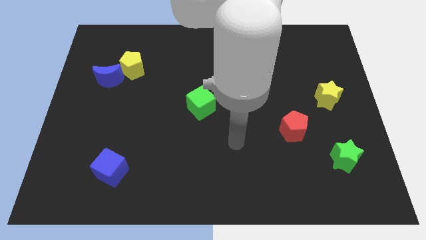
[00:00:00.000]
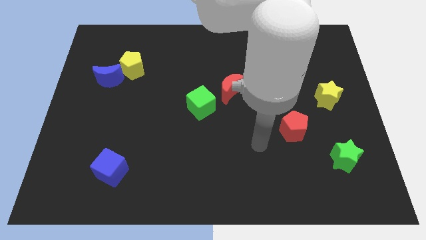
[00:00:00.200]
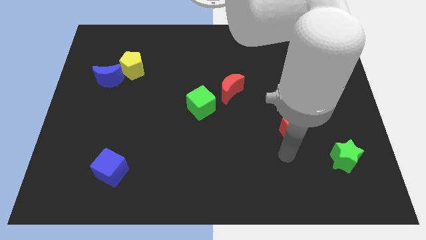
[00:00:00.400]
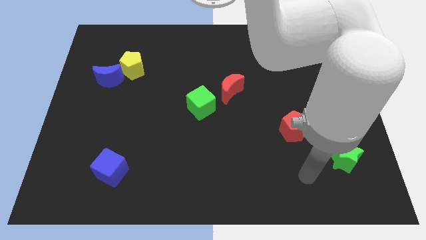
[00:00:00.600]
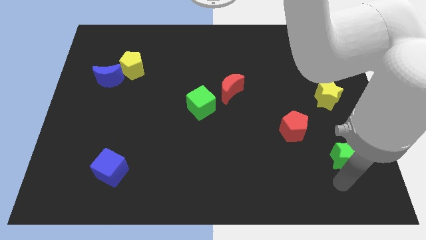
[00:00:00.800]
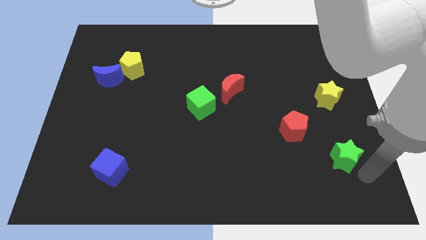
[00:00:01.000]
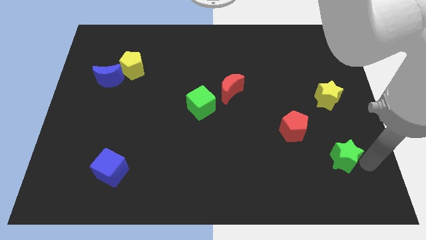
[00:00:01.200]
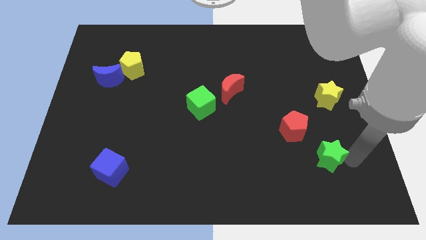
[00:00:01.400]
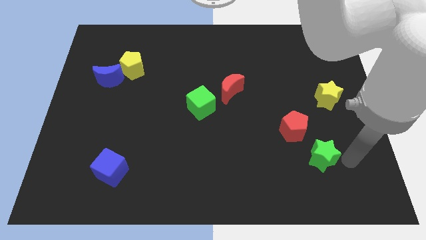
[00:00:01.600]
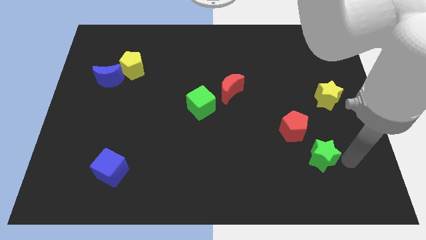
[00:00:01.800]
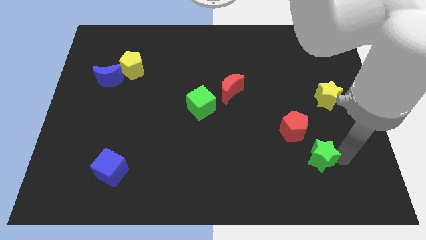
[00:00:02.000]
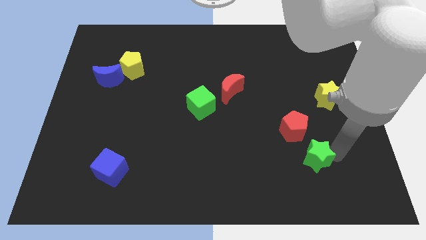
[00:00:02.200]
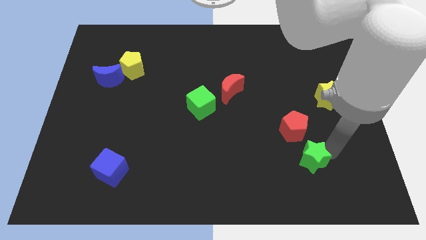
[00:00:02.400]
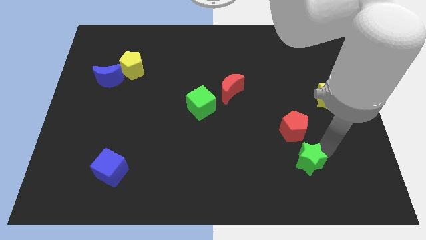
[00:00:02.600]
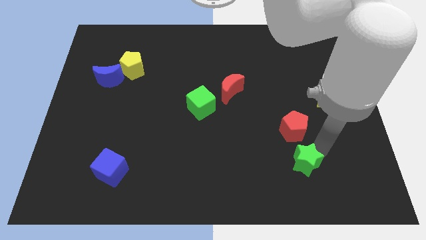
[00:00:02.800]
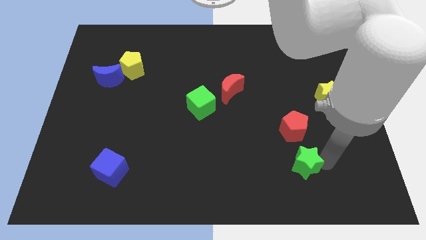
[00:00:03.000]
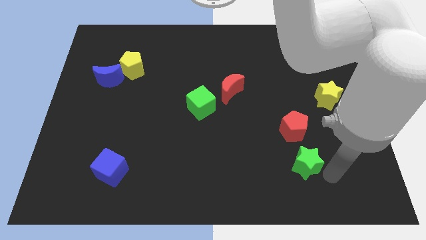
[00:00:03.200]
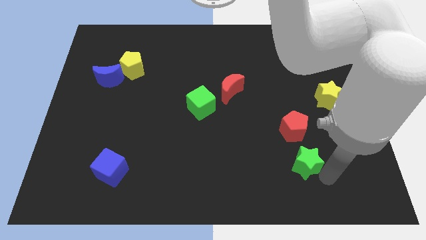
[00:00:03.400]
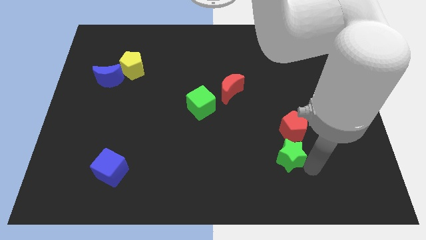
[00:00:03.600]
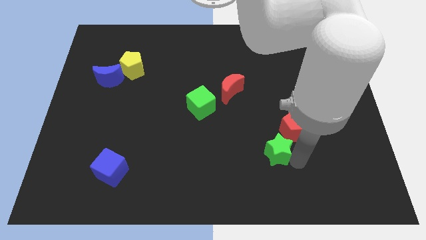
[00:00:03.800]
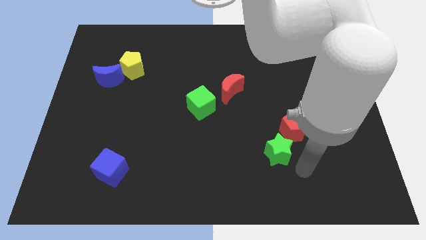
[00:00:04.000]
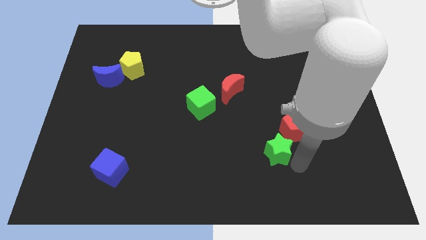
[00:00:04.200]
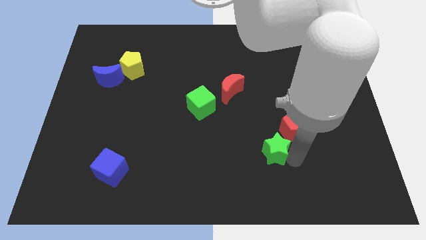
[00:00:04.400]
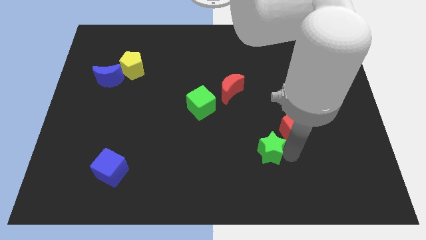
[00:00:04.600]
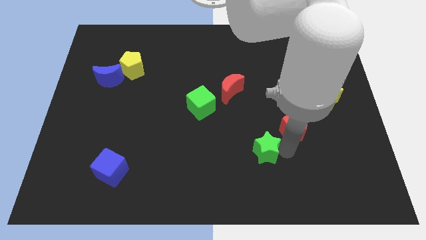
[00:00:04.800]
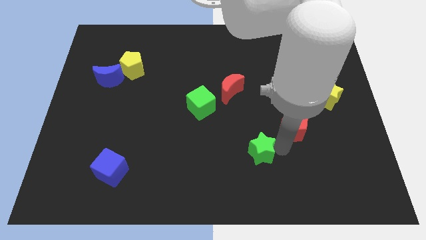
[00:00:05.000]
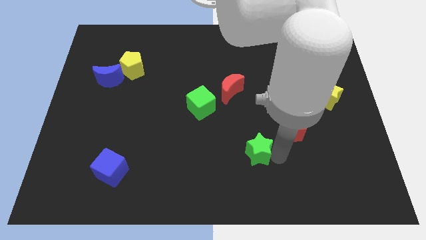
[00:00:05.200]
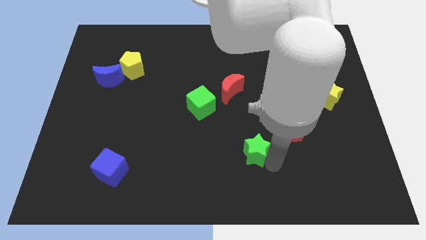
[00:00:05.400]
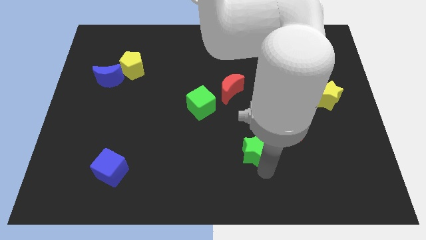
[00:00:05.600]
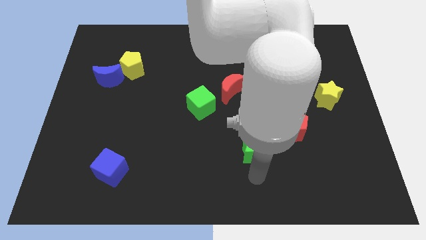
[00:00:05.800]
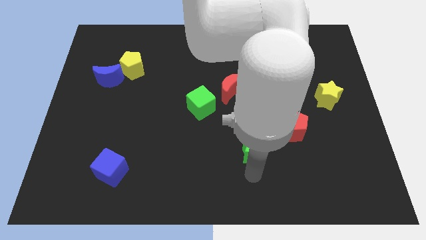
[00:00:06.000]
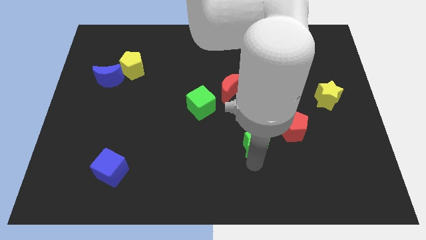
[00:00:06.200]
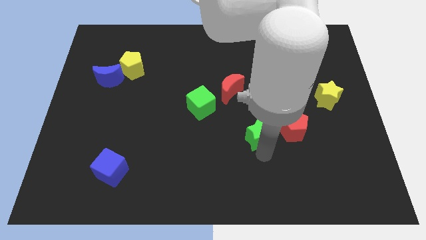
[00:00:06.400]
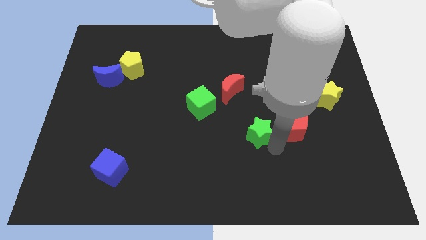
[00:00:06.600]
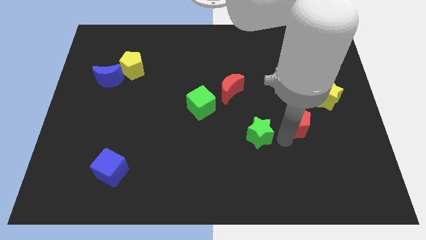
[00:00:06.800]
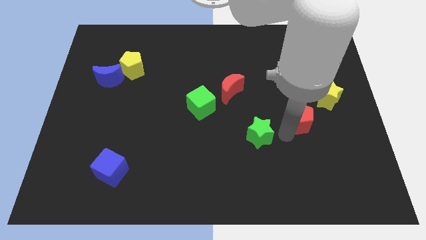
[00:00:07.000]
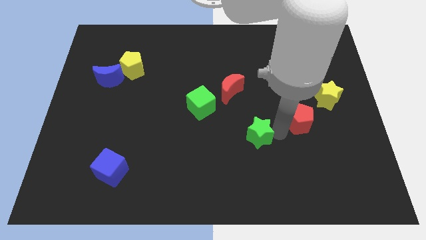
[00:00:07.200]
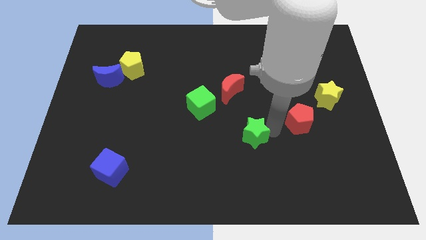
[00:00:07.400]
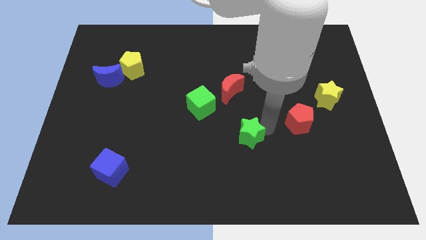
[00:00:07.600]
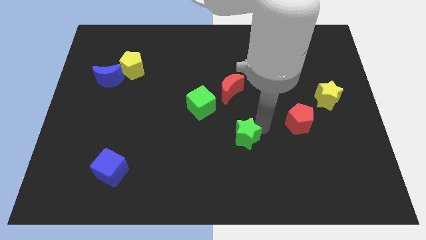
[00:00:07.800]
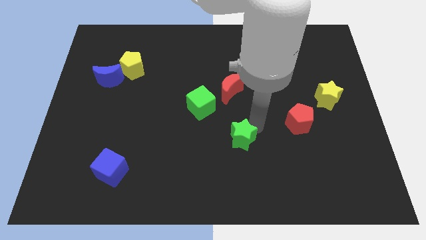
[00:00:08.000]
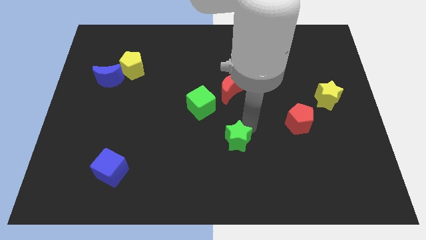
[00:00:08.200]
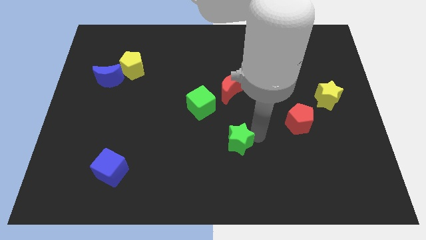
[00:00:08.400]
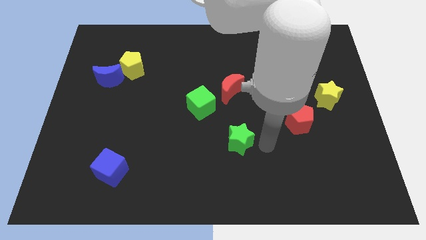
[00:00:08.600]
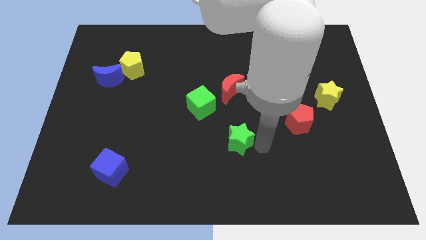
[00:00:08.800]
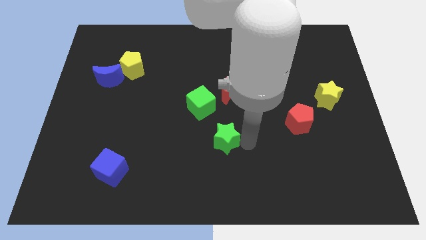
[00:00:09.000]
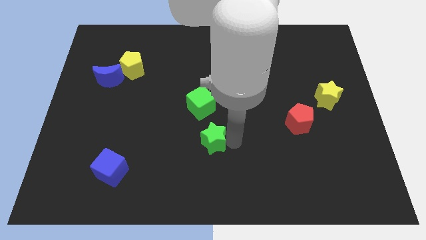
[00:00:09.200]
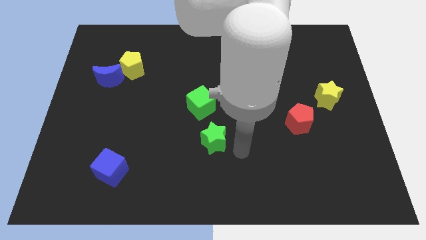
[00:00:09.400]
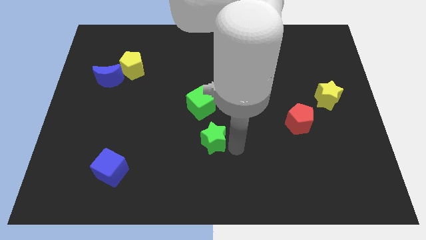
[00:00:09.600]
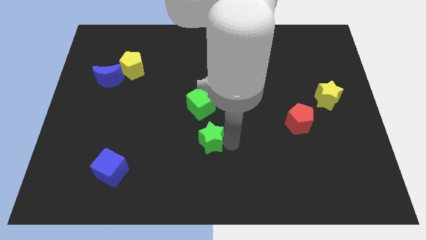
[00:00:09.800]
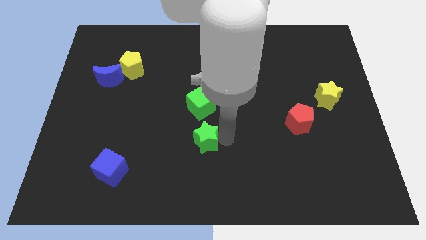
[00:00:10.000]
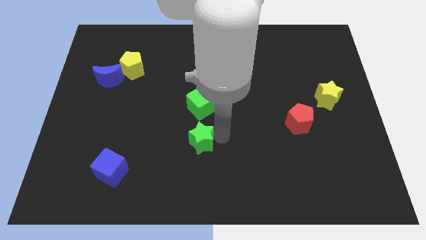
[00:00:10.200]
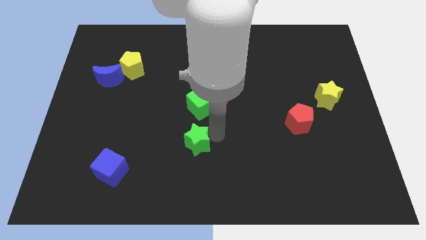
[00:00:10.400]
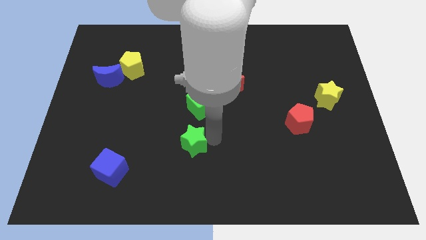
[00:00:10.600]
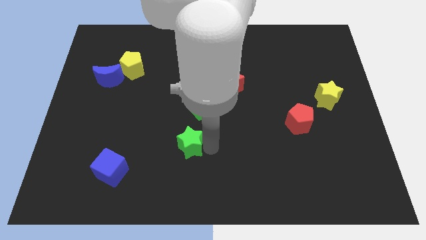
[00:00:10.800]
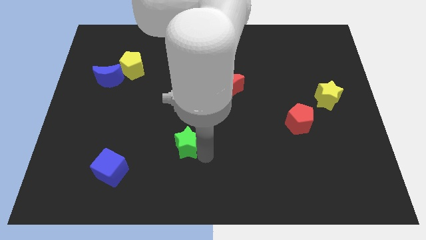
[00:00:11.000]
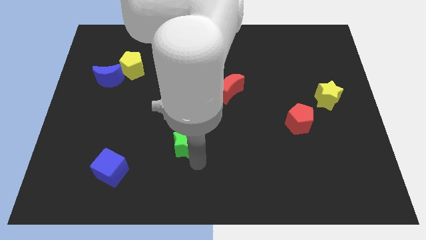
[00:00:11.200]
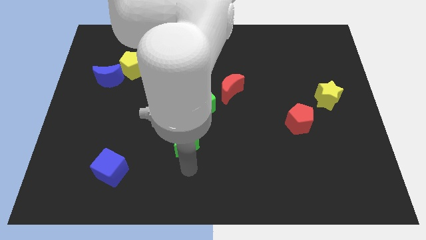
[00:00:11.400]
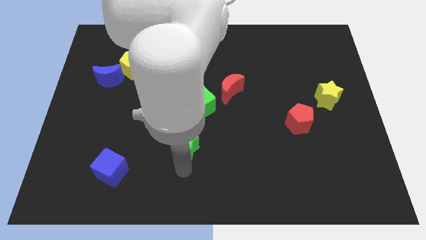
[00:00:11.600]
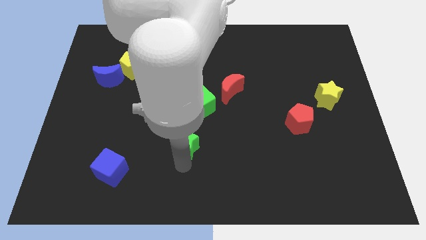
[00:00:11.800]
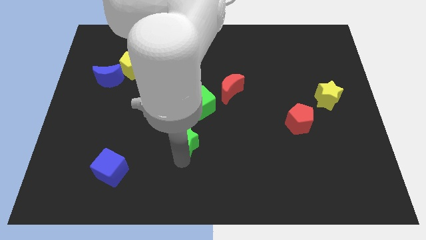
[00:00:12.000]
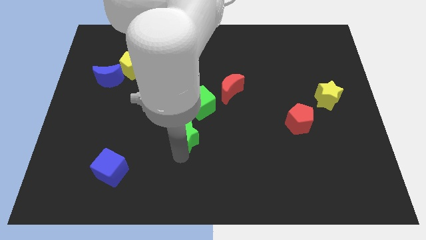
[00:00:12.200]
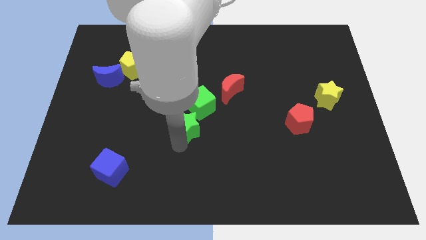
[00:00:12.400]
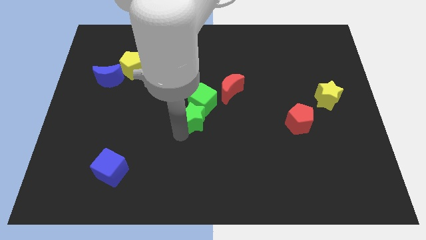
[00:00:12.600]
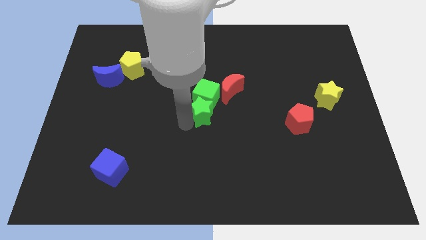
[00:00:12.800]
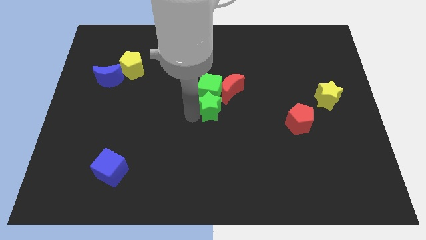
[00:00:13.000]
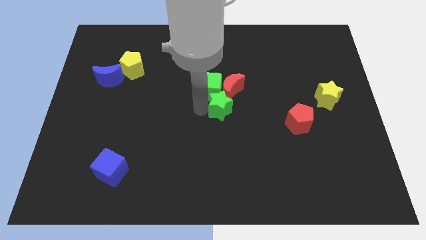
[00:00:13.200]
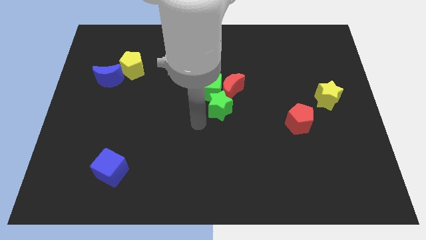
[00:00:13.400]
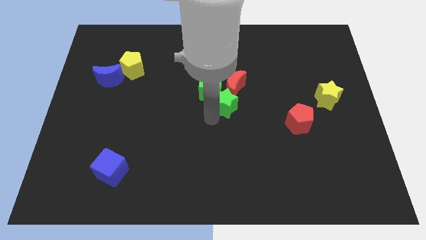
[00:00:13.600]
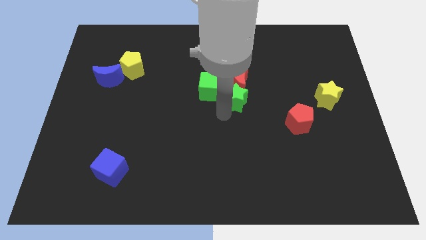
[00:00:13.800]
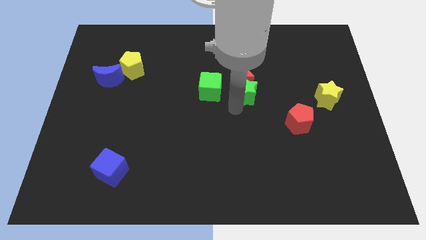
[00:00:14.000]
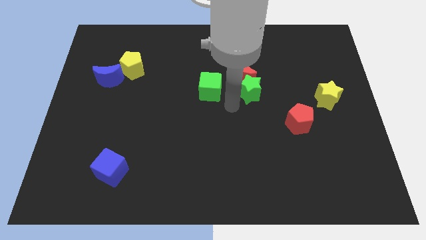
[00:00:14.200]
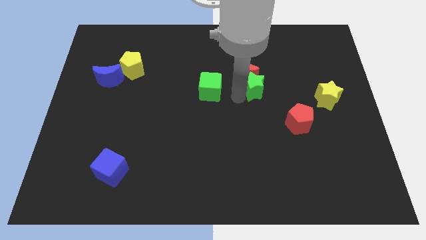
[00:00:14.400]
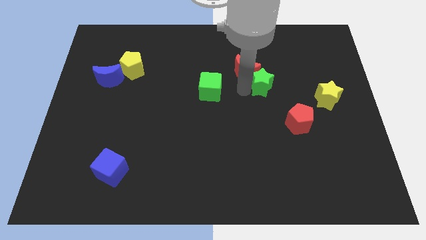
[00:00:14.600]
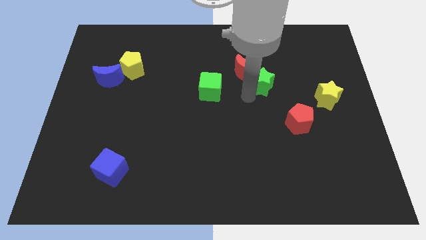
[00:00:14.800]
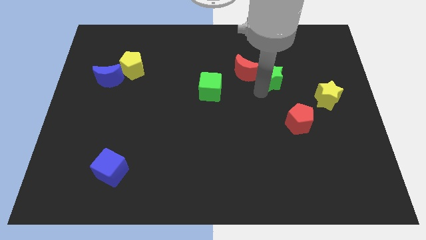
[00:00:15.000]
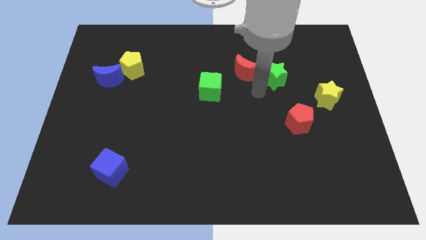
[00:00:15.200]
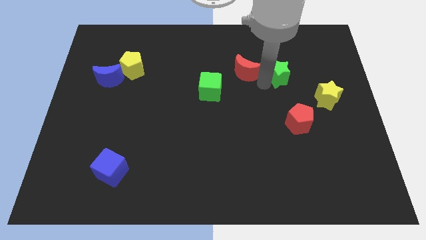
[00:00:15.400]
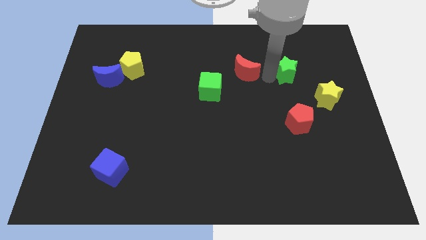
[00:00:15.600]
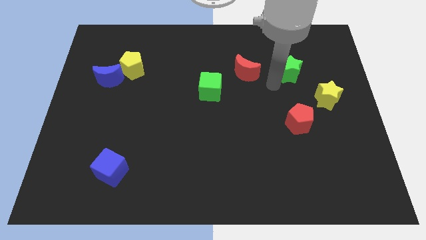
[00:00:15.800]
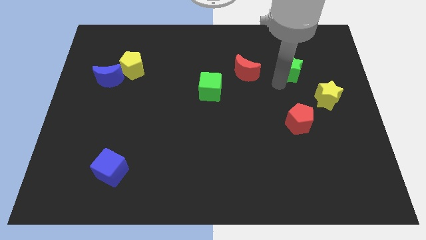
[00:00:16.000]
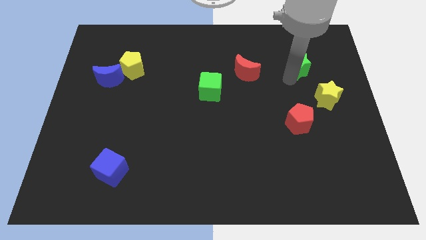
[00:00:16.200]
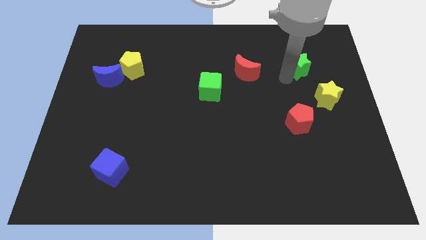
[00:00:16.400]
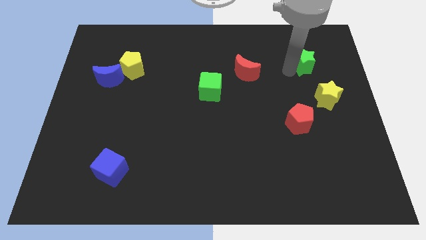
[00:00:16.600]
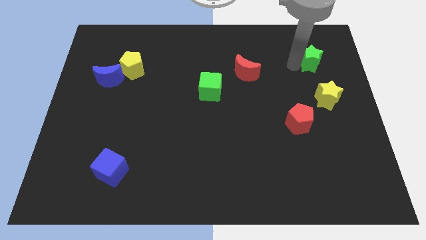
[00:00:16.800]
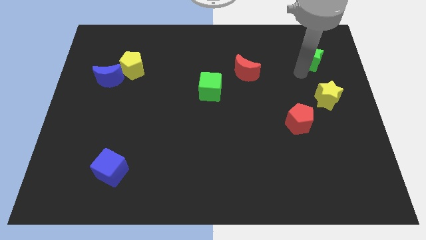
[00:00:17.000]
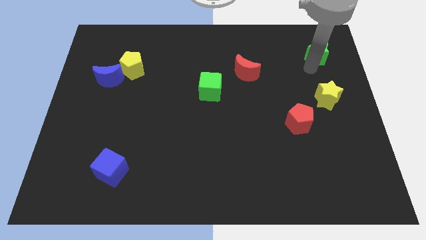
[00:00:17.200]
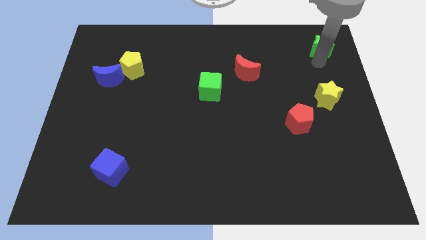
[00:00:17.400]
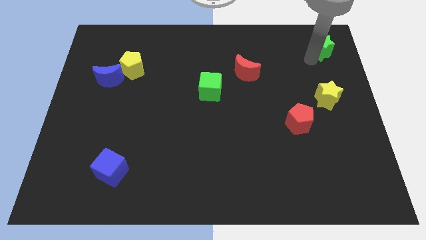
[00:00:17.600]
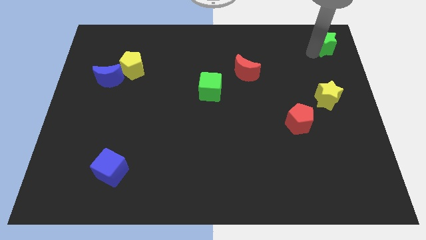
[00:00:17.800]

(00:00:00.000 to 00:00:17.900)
slide the green star to the top right of the board
